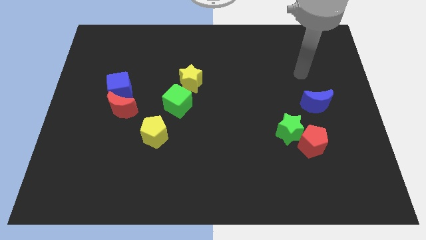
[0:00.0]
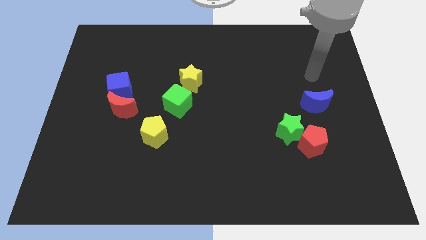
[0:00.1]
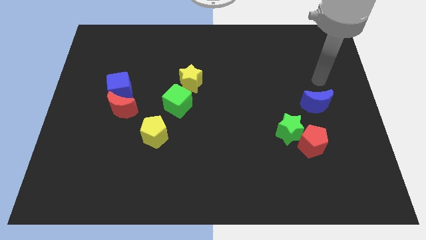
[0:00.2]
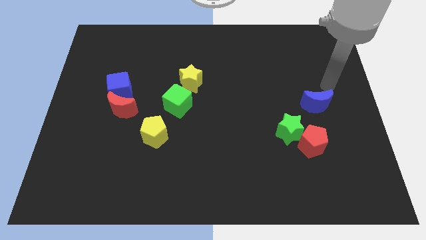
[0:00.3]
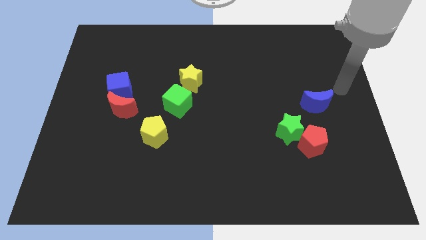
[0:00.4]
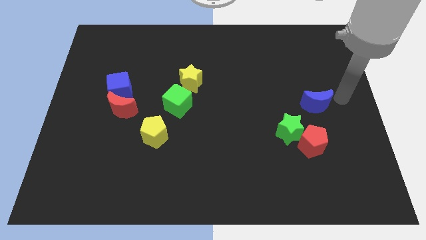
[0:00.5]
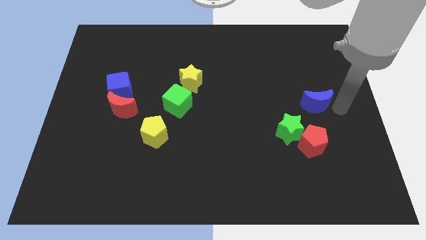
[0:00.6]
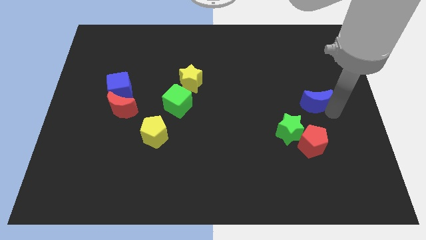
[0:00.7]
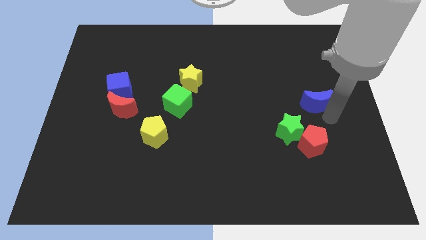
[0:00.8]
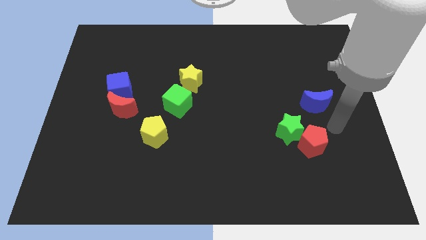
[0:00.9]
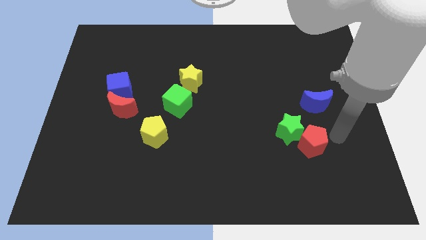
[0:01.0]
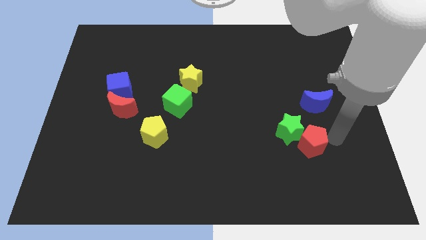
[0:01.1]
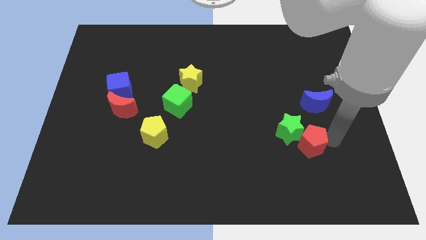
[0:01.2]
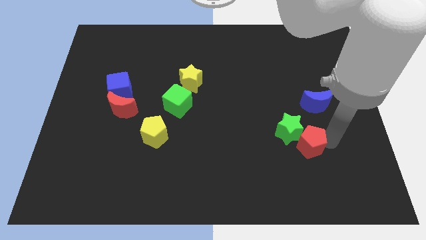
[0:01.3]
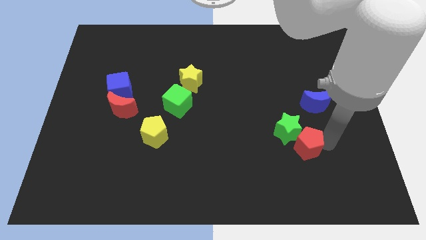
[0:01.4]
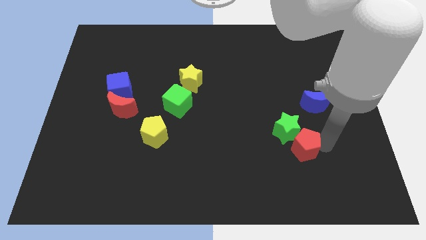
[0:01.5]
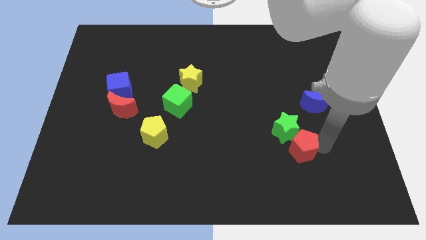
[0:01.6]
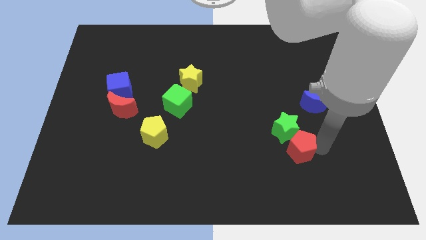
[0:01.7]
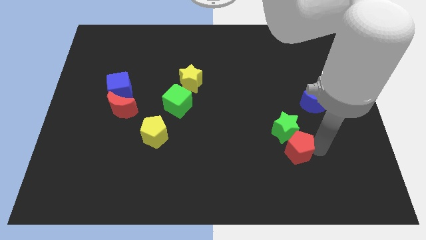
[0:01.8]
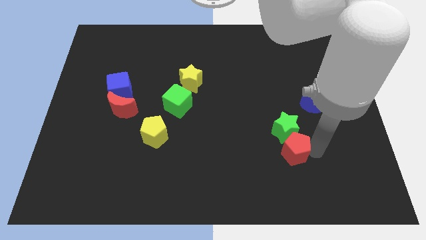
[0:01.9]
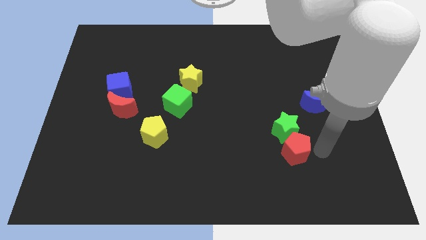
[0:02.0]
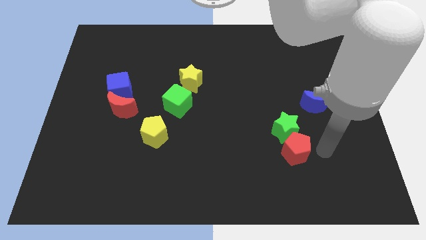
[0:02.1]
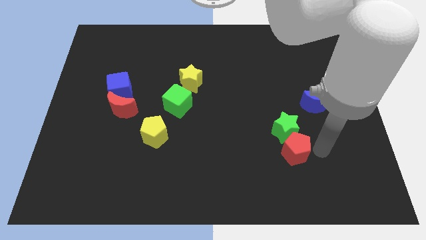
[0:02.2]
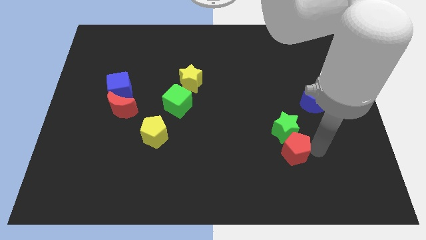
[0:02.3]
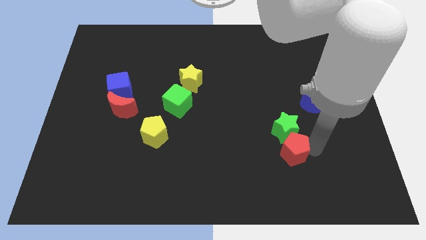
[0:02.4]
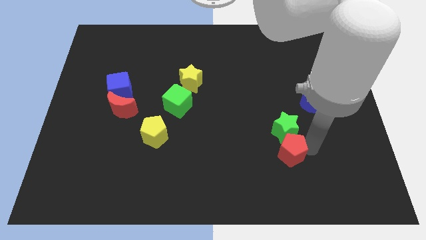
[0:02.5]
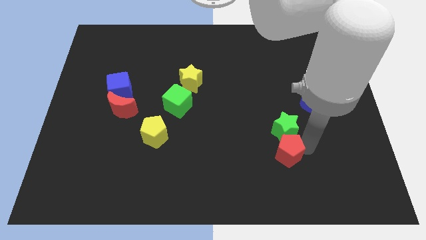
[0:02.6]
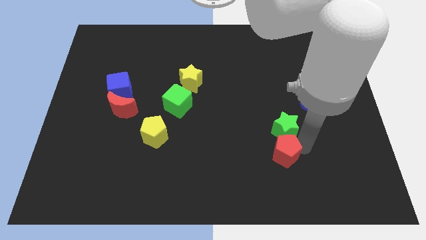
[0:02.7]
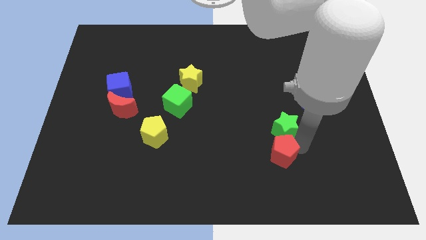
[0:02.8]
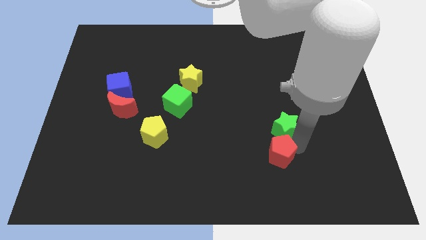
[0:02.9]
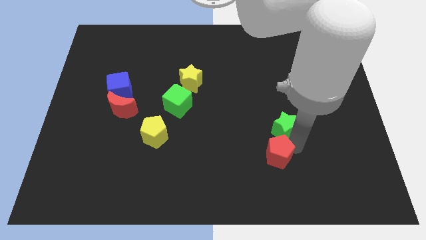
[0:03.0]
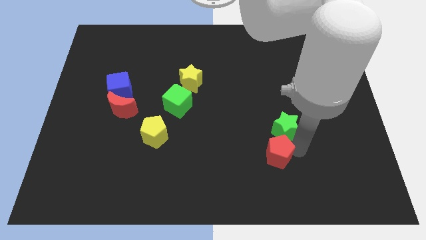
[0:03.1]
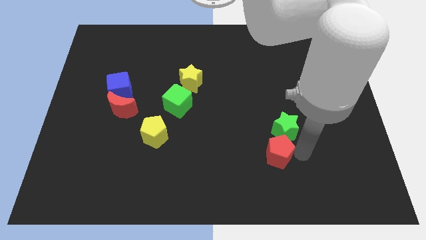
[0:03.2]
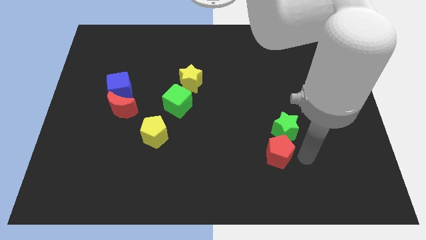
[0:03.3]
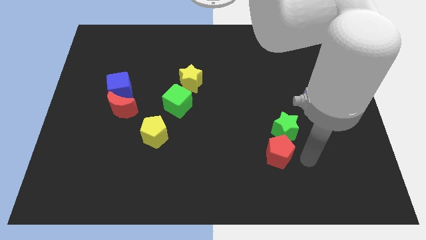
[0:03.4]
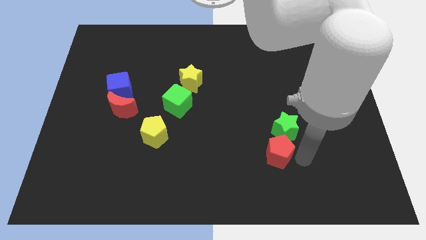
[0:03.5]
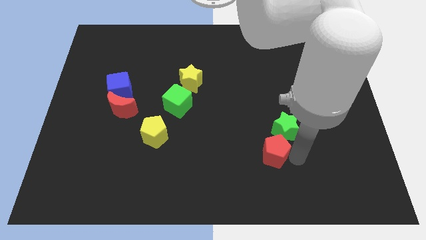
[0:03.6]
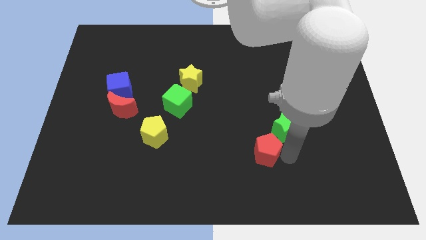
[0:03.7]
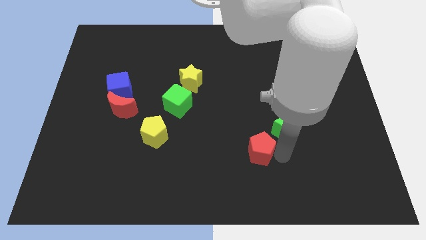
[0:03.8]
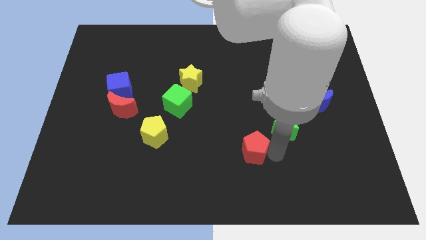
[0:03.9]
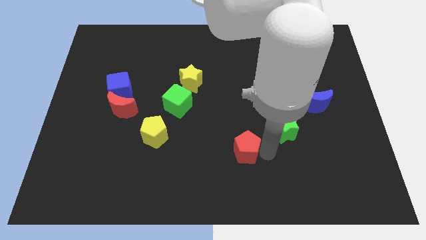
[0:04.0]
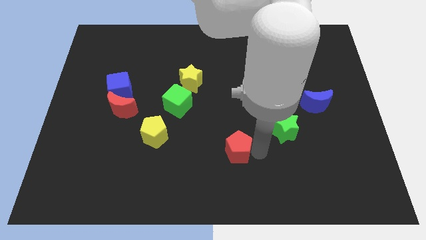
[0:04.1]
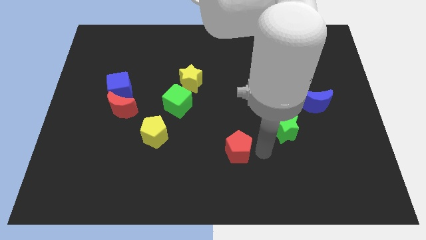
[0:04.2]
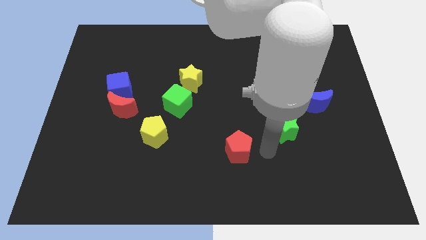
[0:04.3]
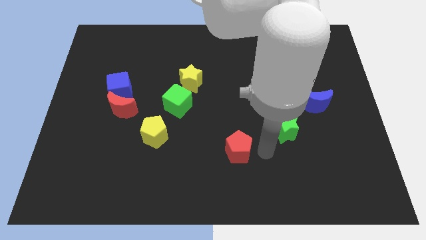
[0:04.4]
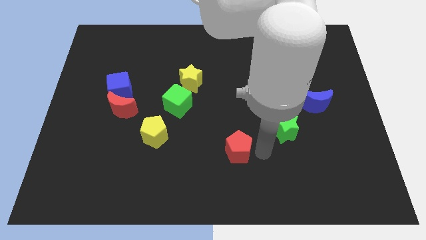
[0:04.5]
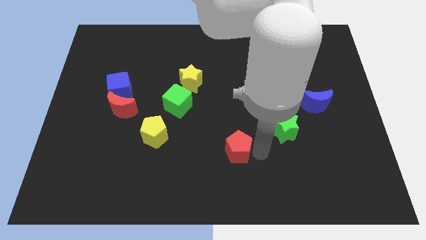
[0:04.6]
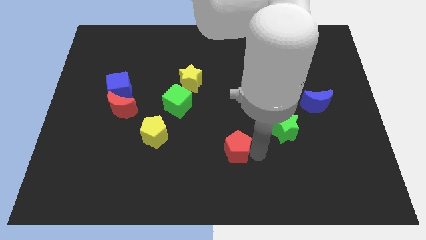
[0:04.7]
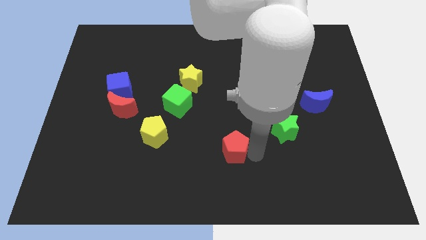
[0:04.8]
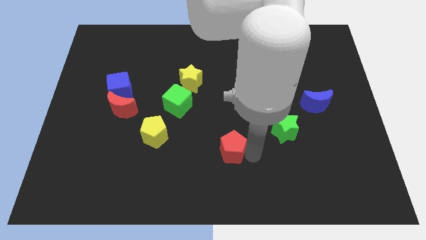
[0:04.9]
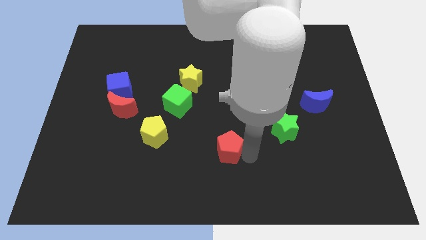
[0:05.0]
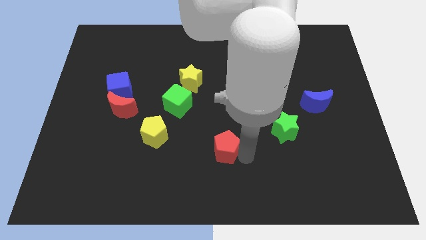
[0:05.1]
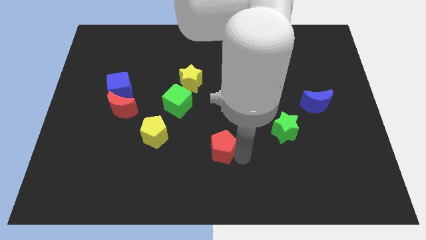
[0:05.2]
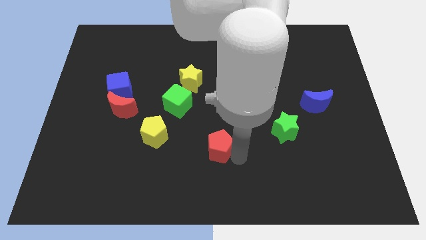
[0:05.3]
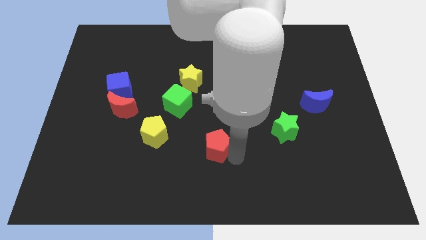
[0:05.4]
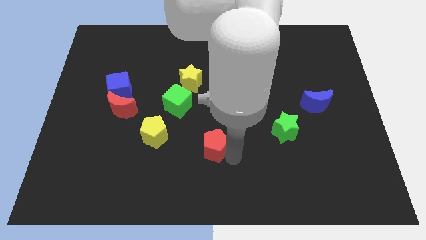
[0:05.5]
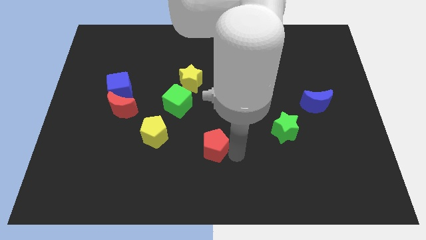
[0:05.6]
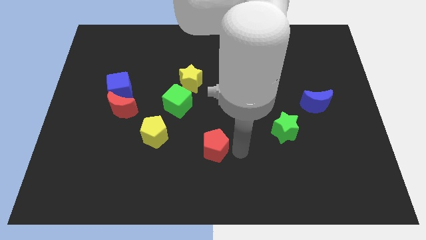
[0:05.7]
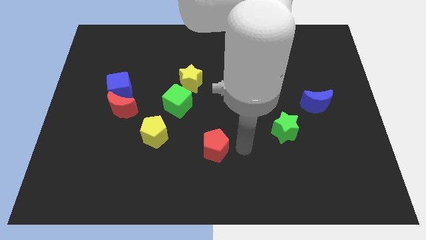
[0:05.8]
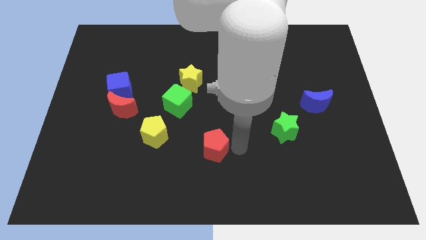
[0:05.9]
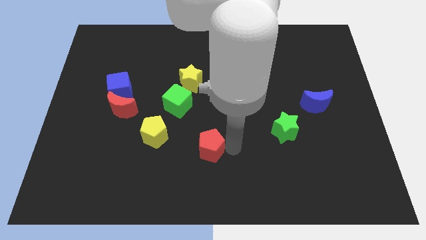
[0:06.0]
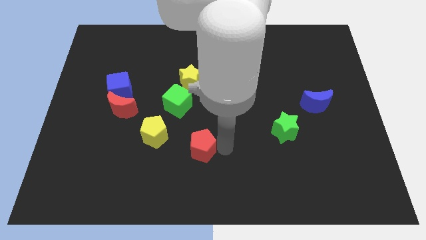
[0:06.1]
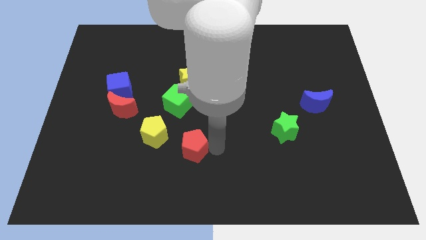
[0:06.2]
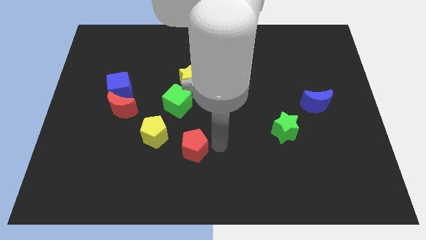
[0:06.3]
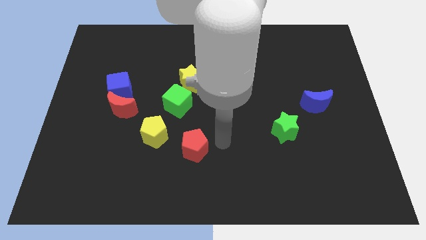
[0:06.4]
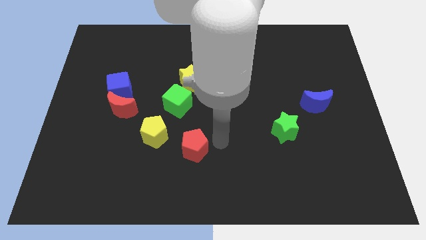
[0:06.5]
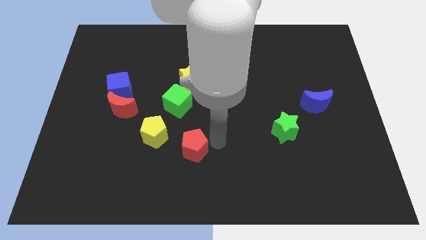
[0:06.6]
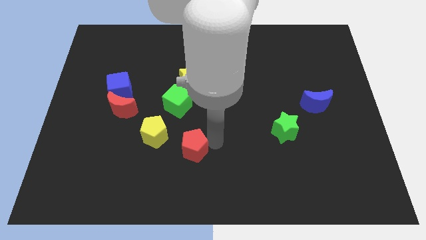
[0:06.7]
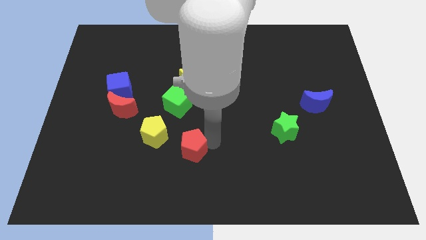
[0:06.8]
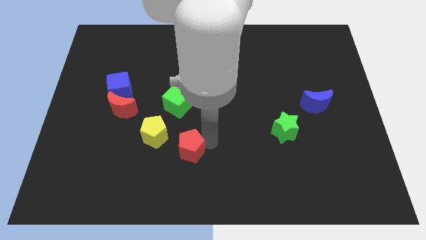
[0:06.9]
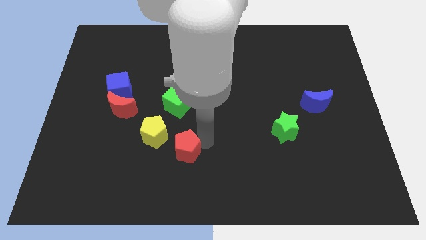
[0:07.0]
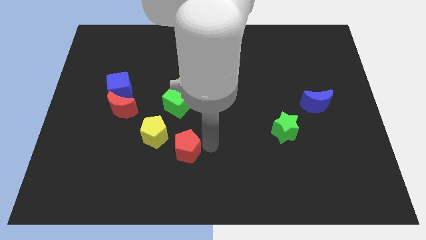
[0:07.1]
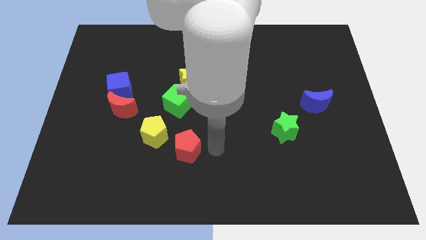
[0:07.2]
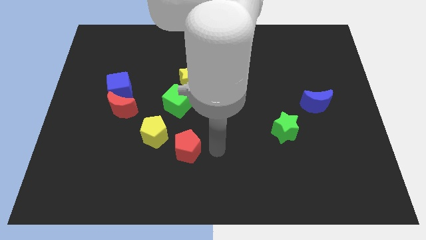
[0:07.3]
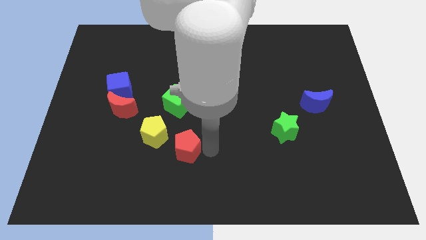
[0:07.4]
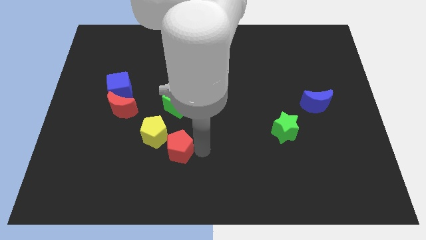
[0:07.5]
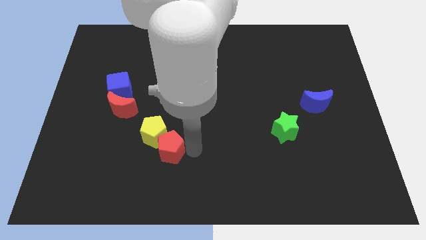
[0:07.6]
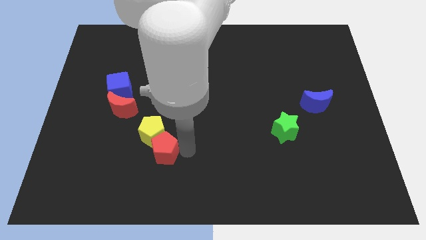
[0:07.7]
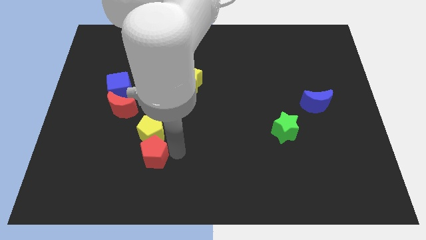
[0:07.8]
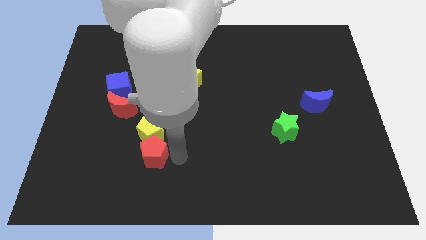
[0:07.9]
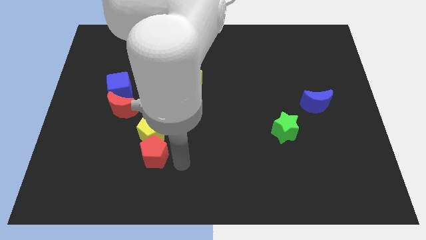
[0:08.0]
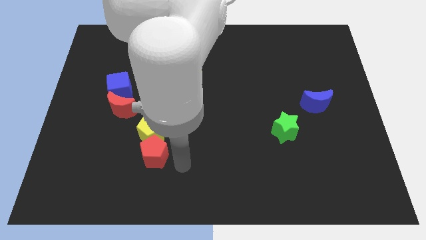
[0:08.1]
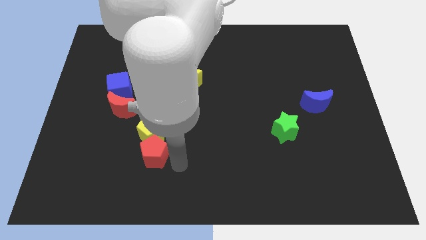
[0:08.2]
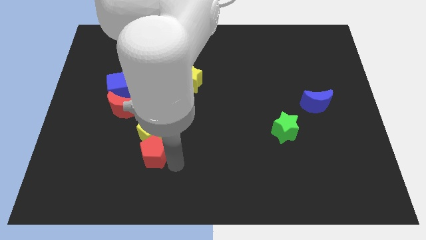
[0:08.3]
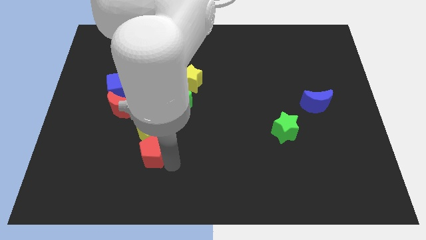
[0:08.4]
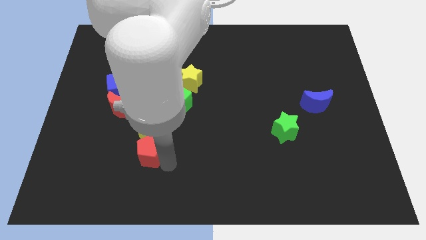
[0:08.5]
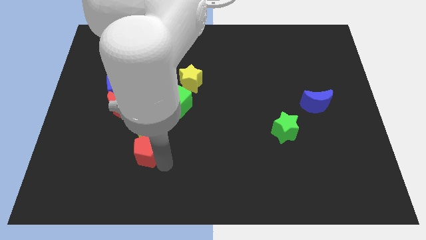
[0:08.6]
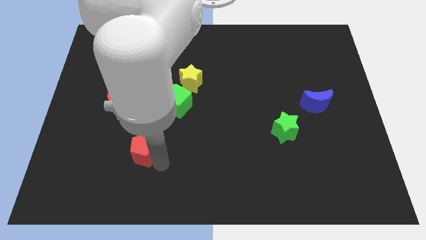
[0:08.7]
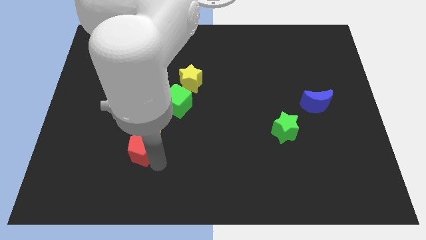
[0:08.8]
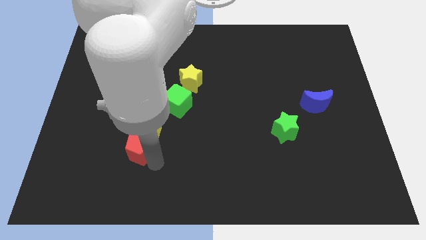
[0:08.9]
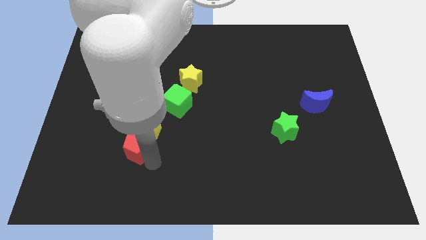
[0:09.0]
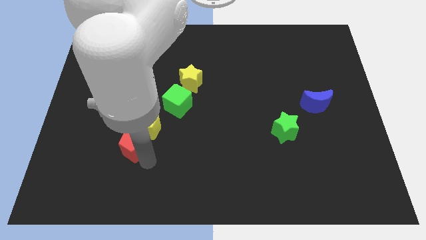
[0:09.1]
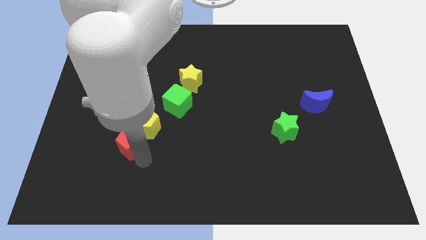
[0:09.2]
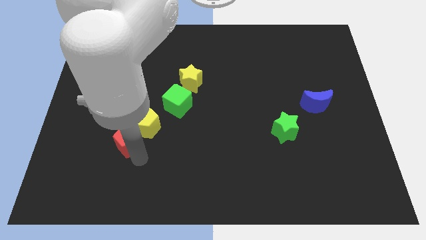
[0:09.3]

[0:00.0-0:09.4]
move the red pentagon left of the yellow pentagon
